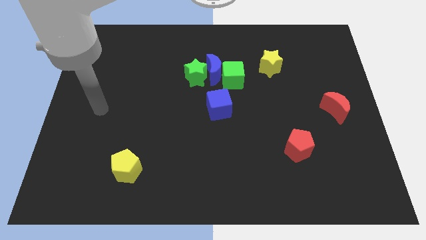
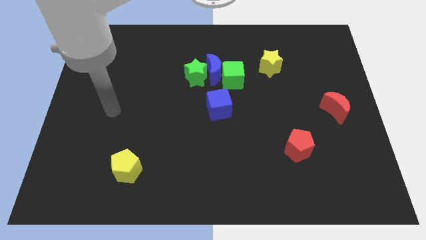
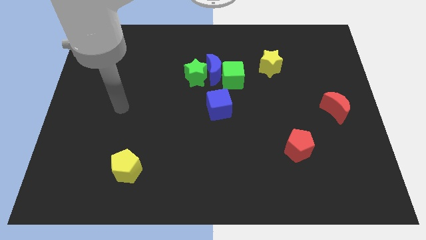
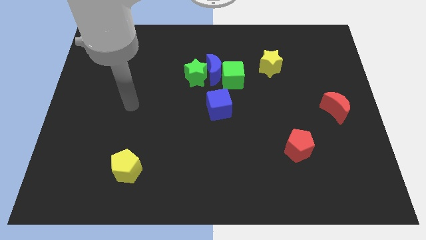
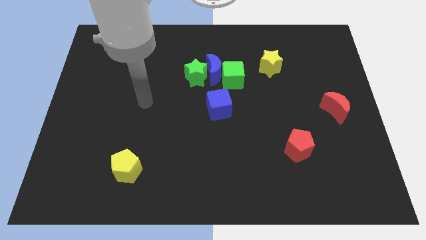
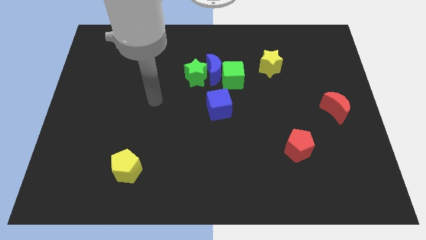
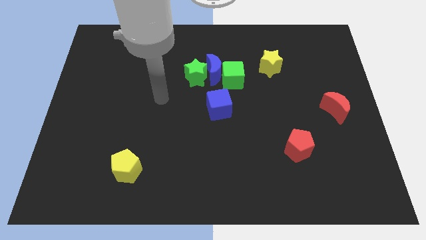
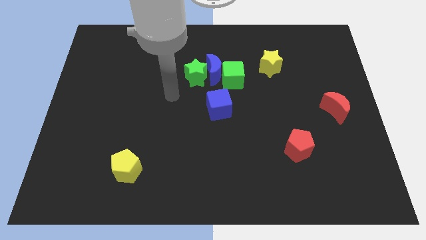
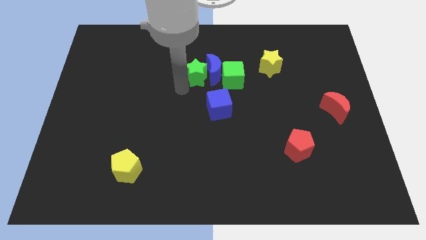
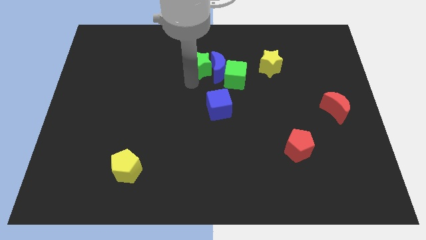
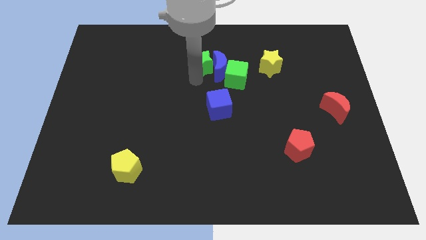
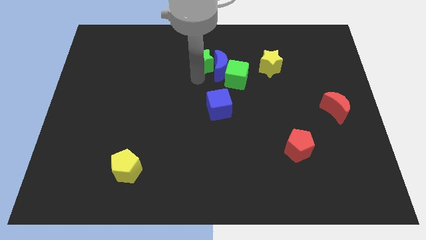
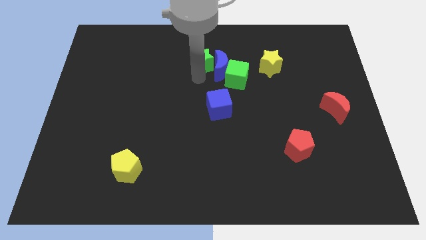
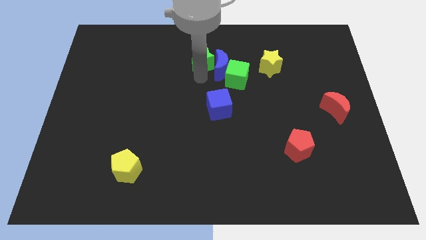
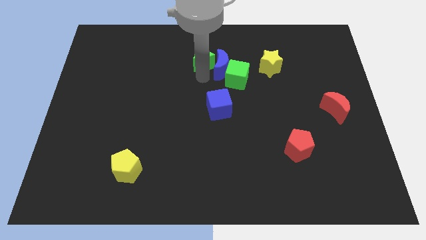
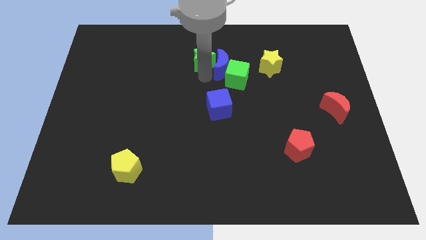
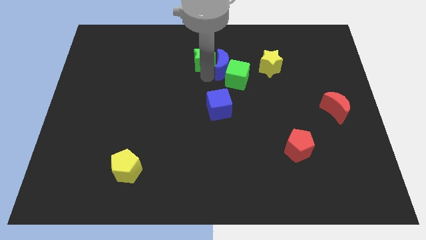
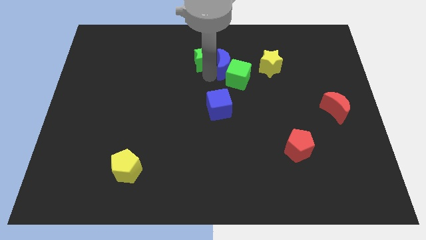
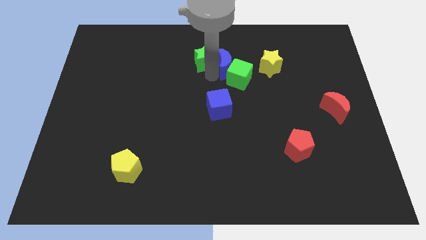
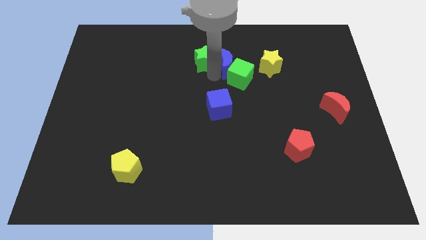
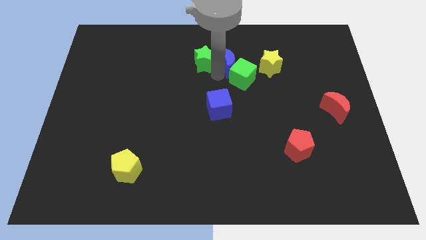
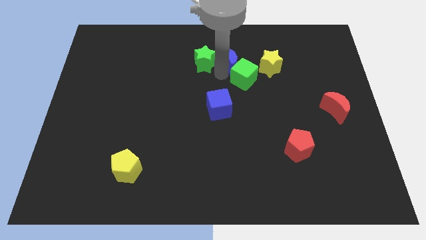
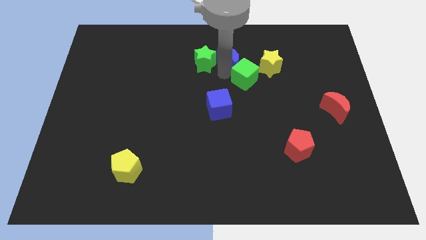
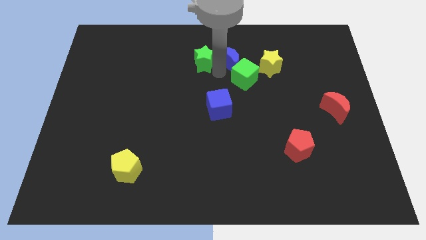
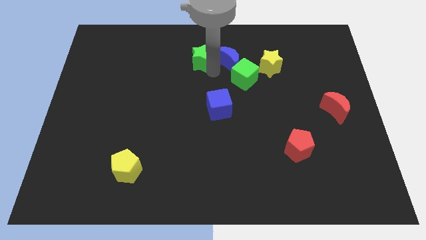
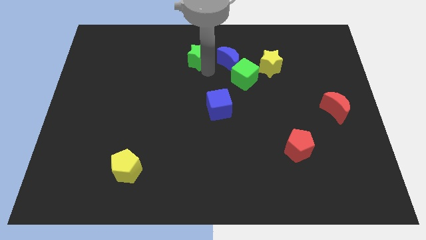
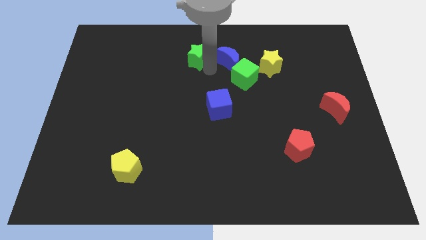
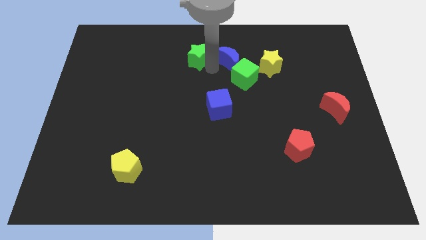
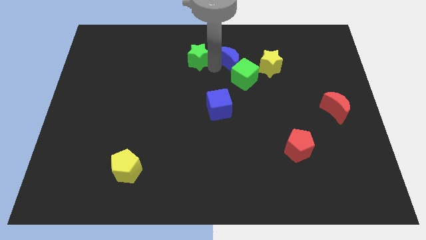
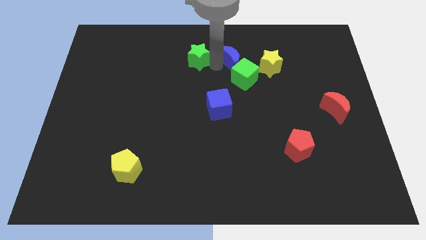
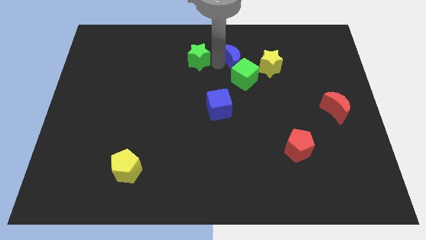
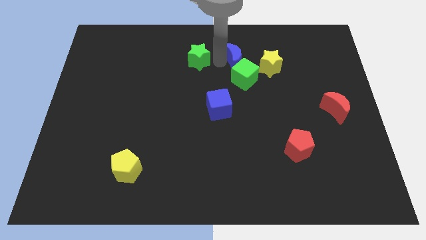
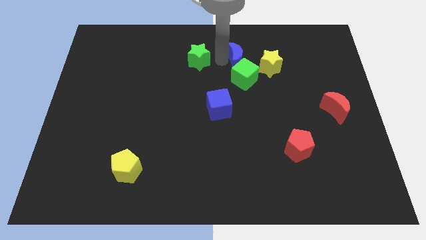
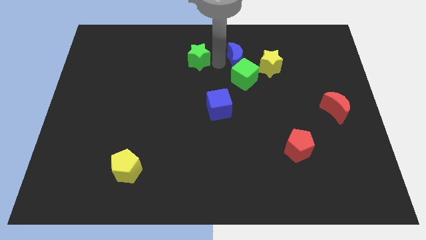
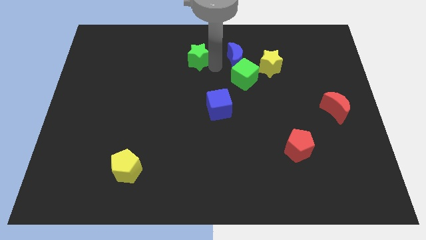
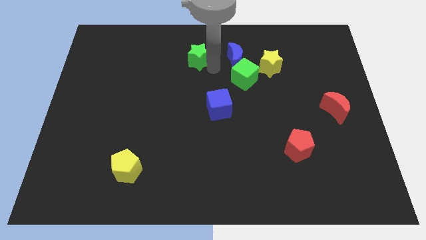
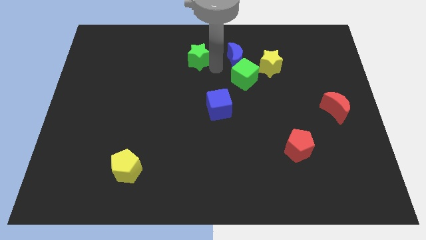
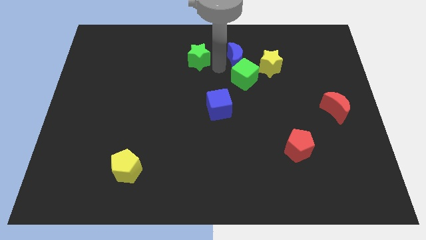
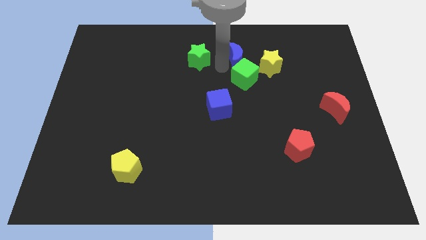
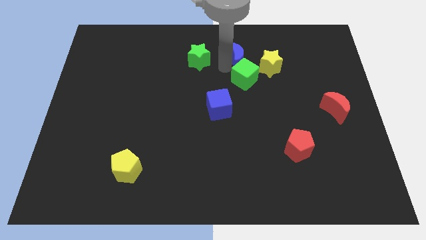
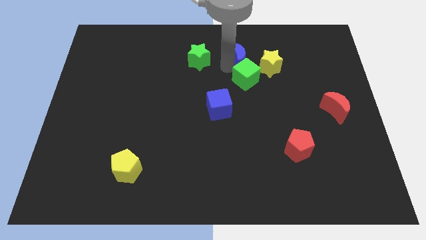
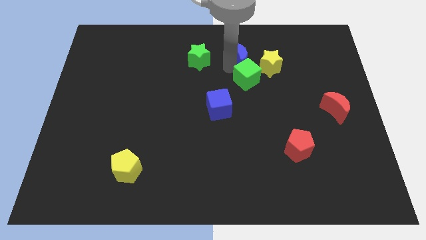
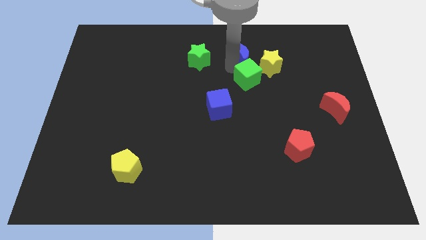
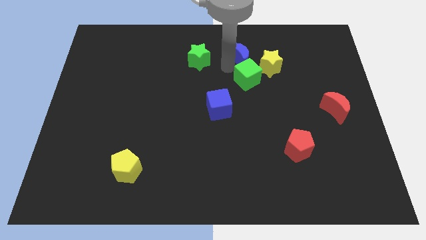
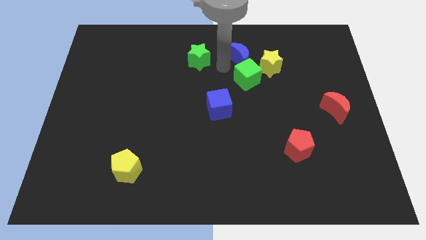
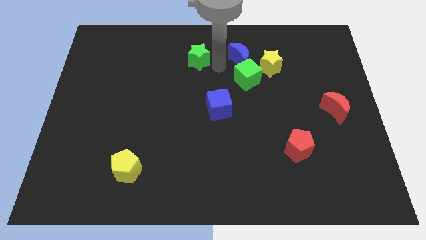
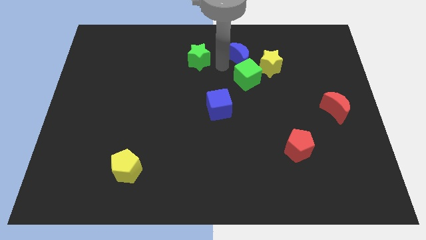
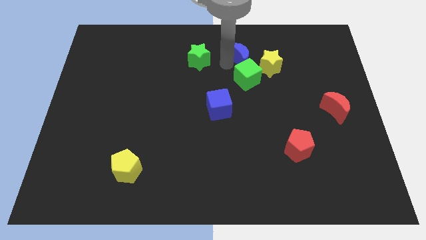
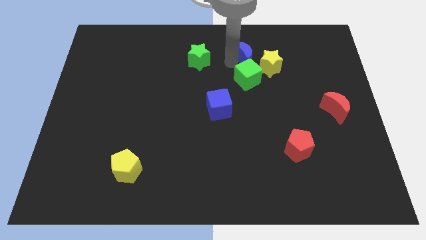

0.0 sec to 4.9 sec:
move the blue moon a bit to the right

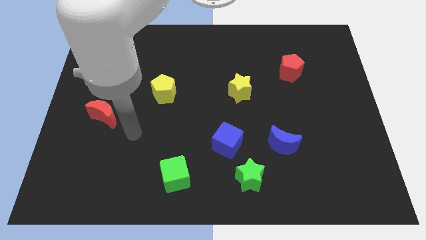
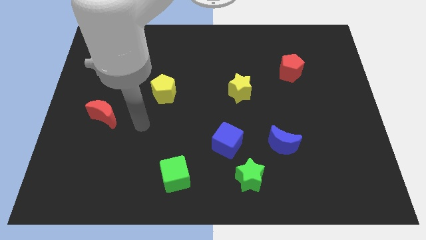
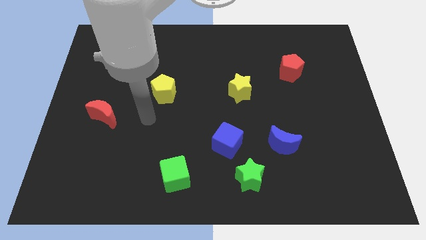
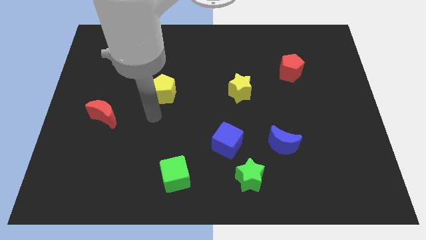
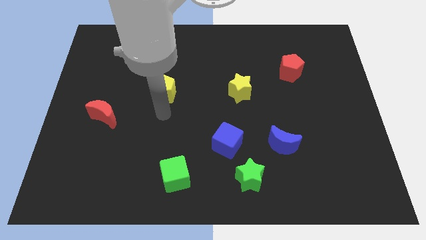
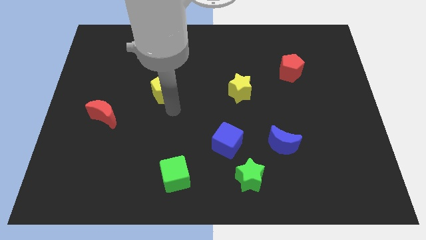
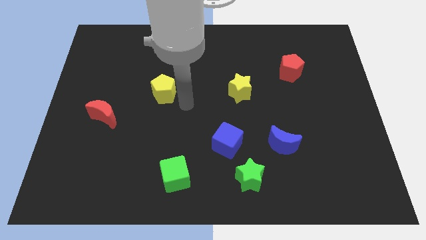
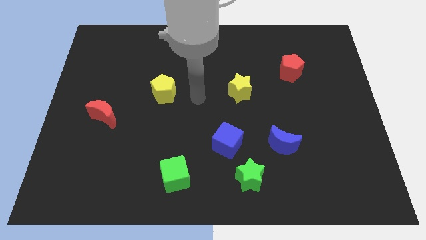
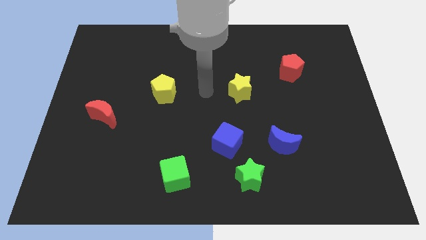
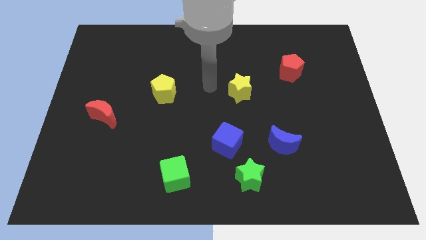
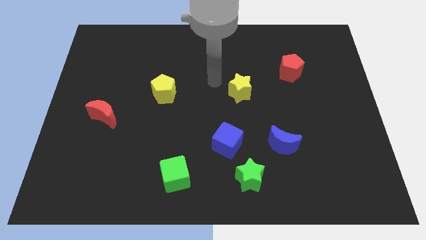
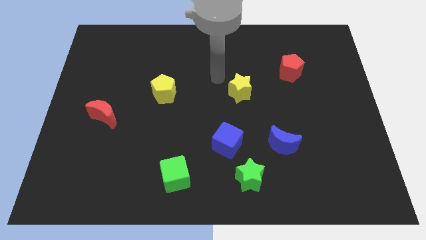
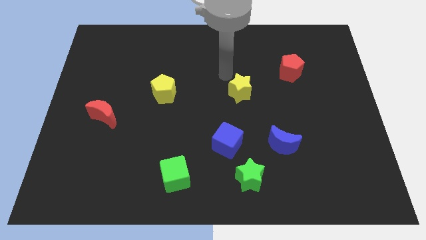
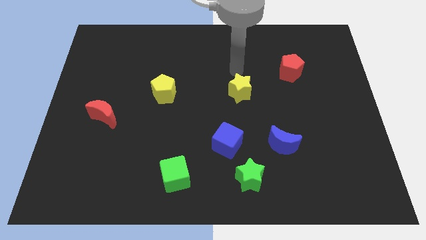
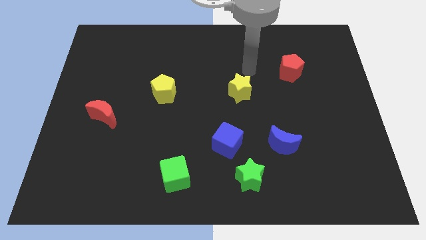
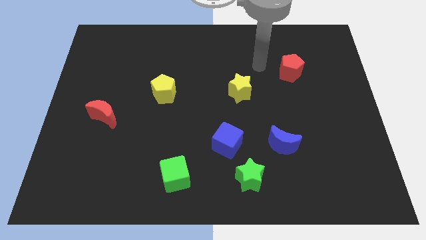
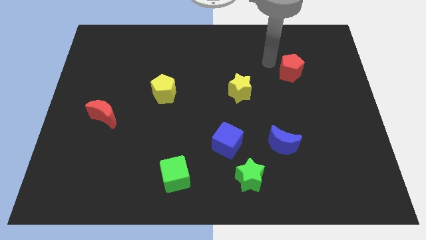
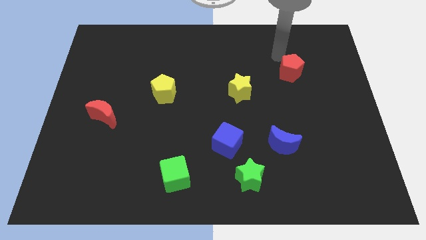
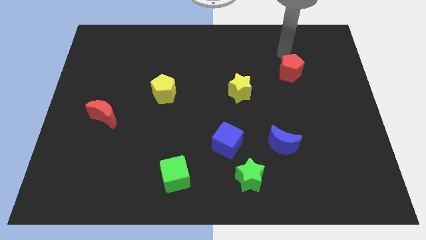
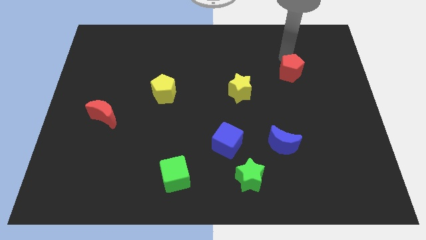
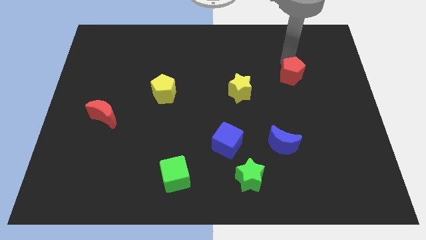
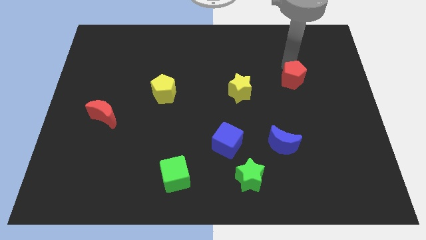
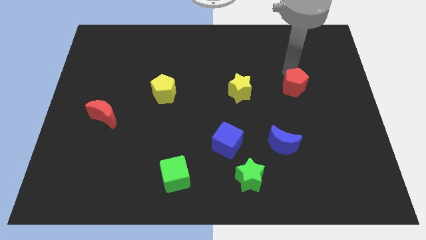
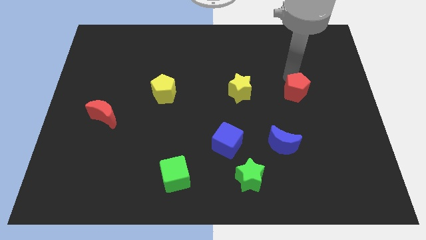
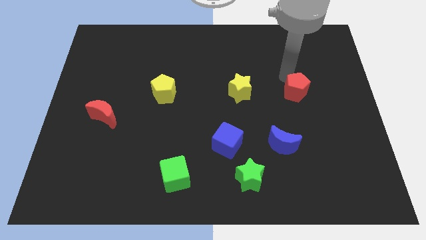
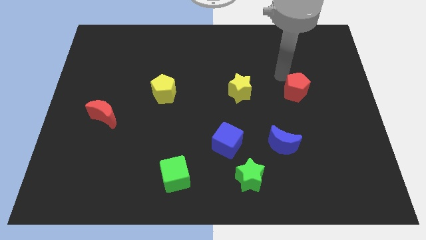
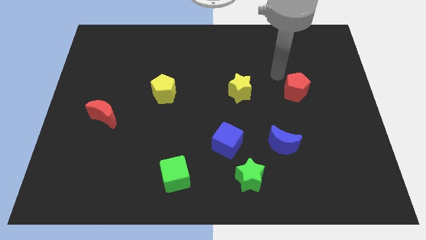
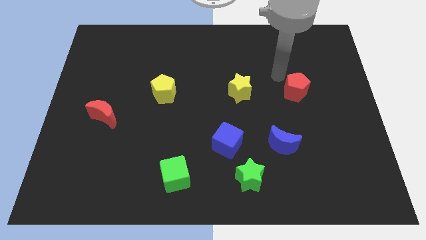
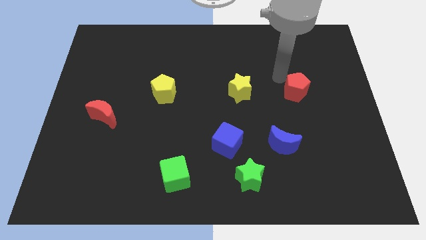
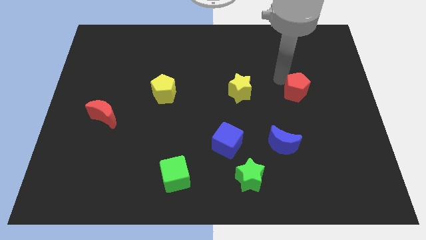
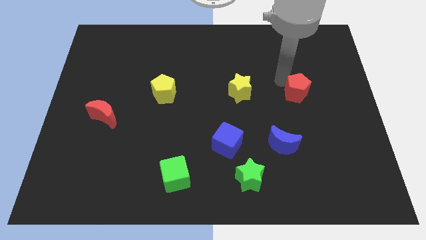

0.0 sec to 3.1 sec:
move the red pentagon down a little bit

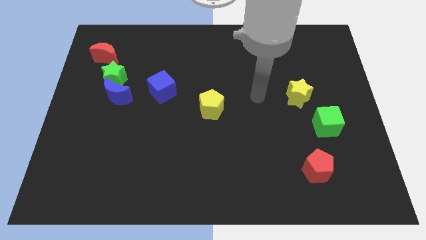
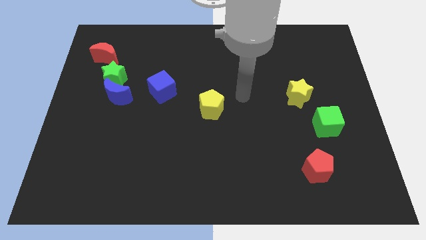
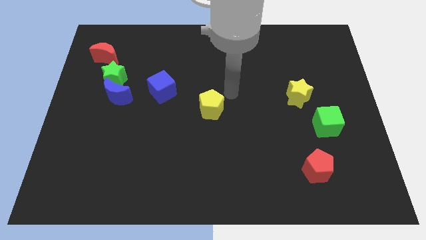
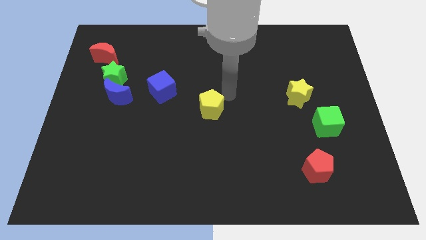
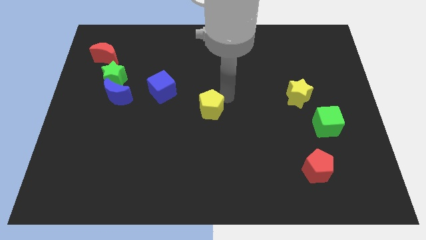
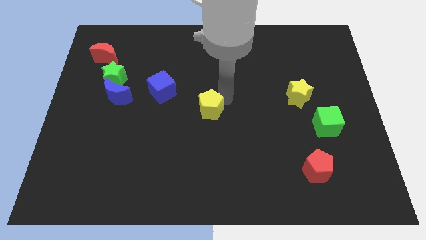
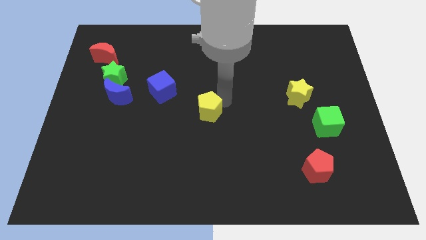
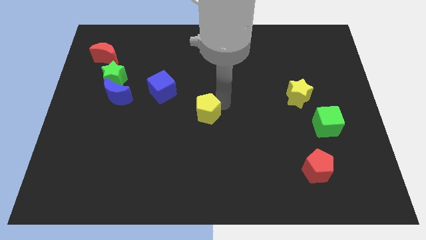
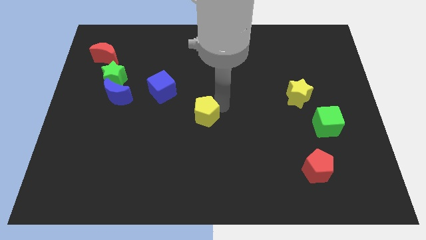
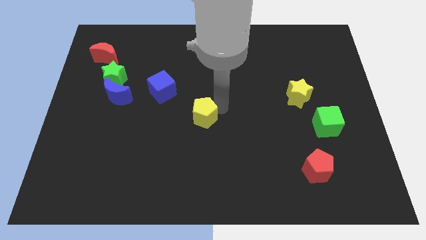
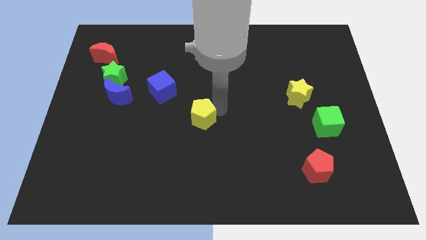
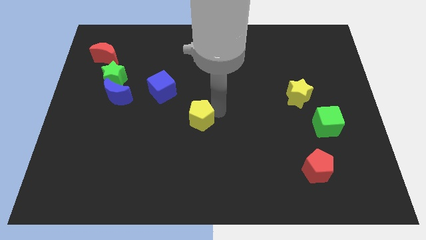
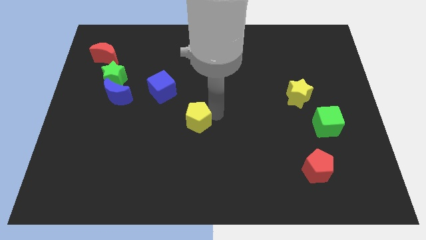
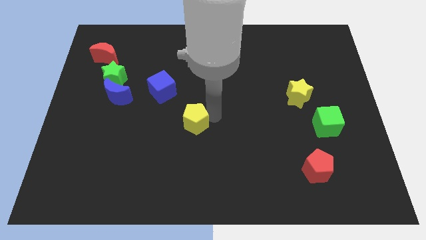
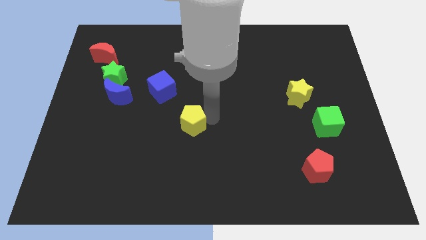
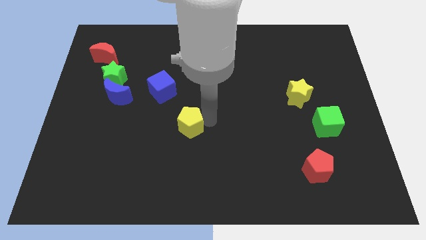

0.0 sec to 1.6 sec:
slightly move the yellow pentagon down and then left
